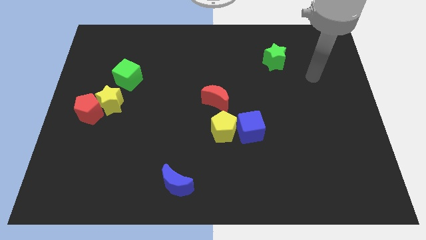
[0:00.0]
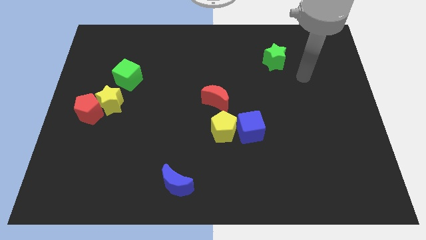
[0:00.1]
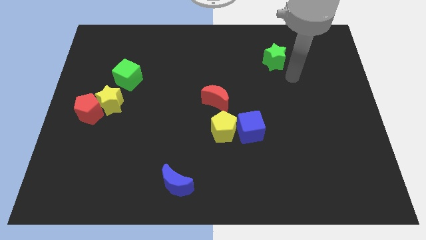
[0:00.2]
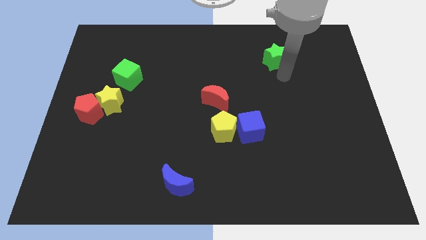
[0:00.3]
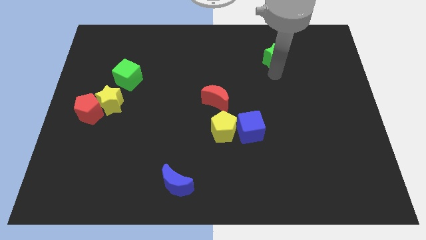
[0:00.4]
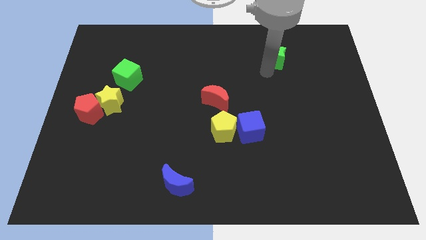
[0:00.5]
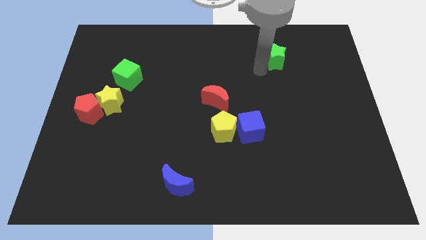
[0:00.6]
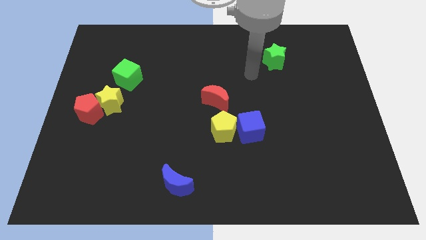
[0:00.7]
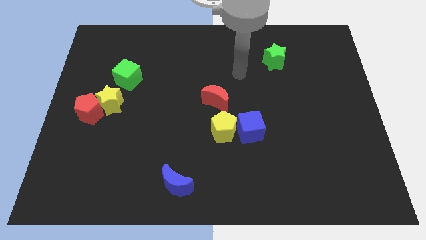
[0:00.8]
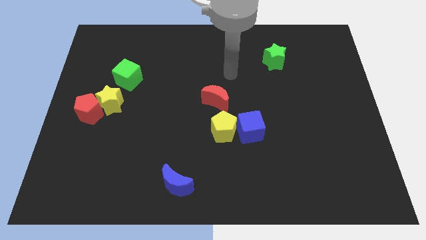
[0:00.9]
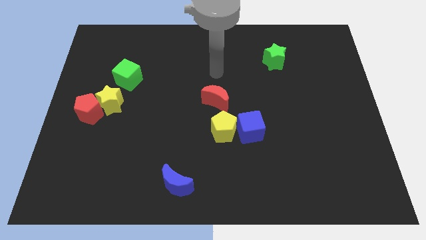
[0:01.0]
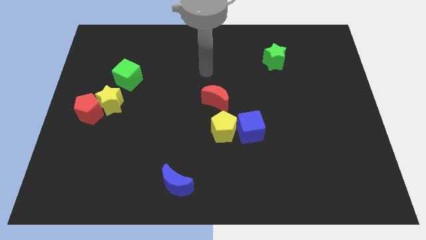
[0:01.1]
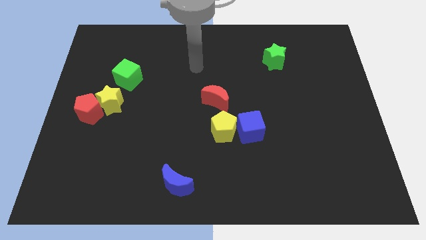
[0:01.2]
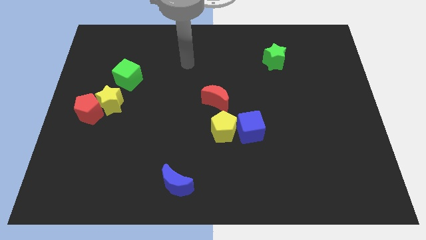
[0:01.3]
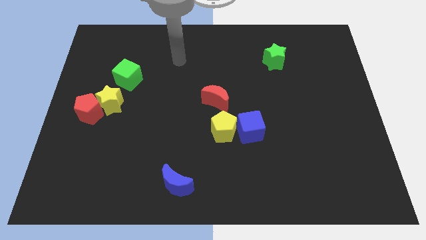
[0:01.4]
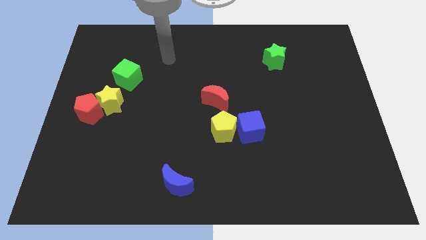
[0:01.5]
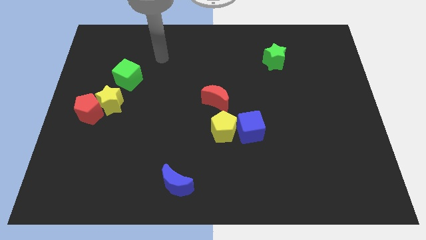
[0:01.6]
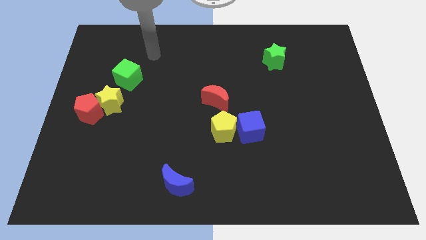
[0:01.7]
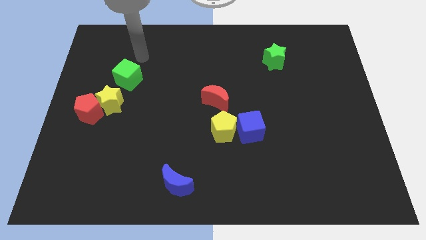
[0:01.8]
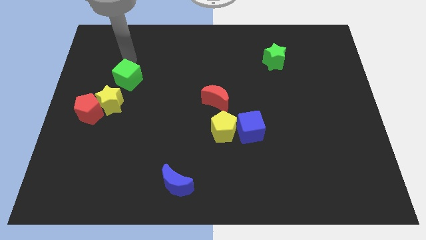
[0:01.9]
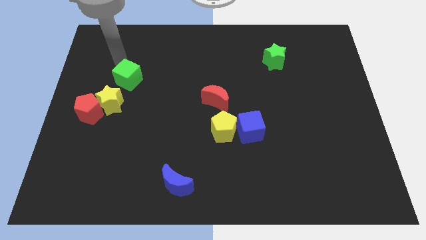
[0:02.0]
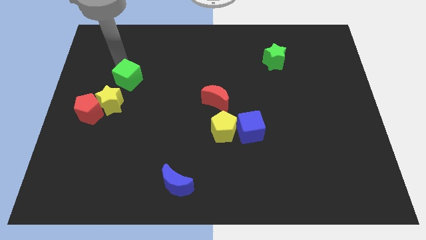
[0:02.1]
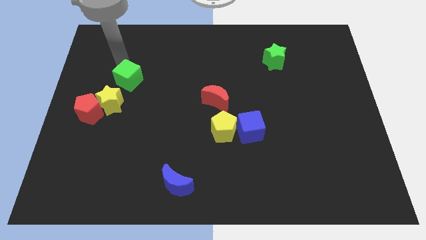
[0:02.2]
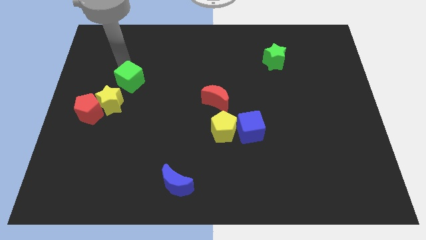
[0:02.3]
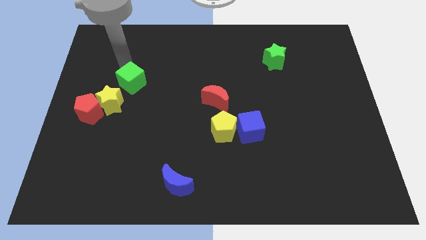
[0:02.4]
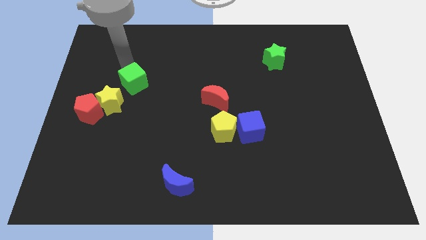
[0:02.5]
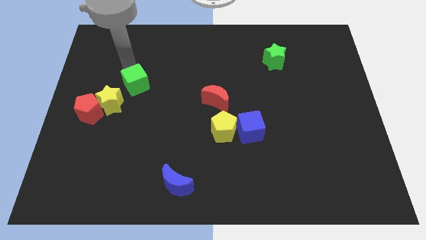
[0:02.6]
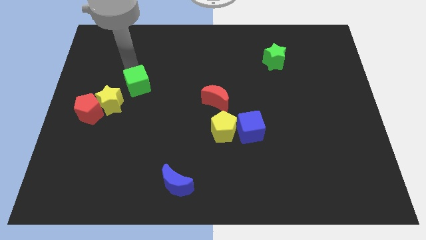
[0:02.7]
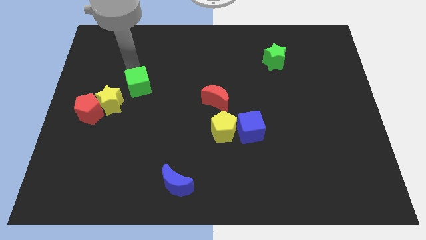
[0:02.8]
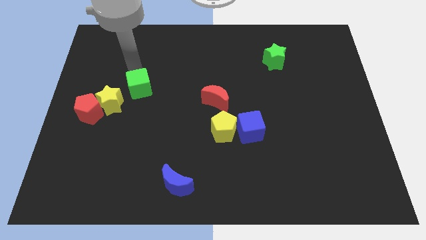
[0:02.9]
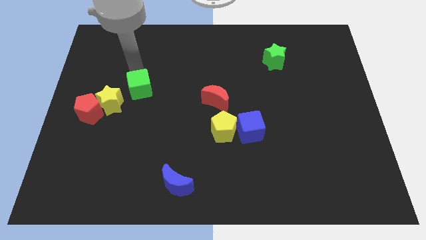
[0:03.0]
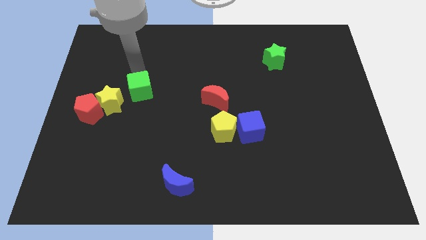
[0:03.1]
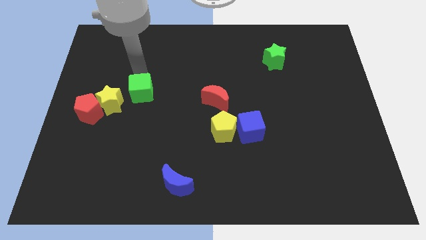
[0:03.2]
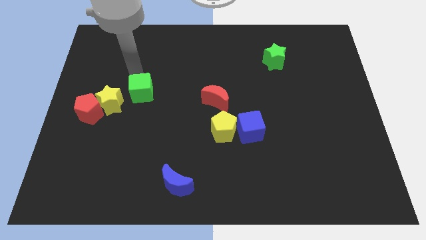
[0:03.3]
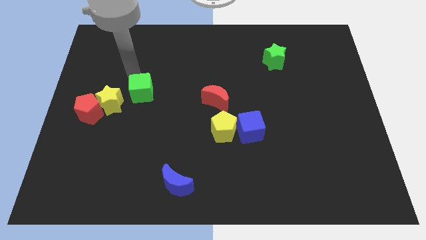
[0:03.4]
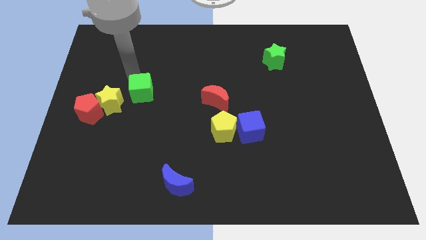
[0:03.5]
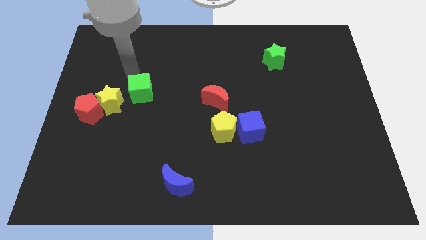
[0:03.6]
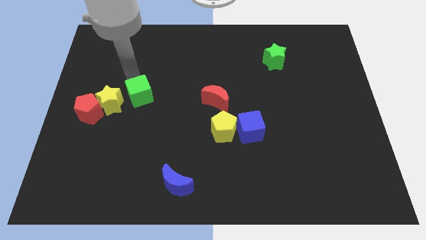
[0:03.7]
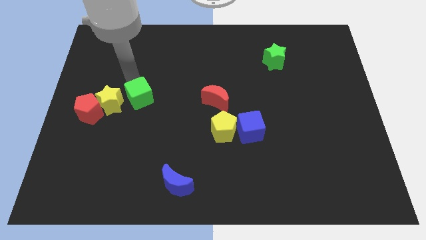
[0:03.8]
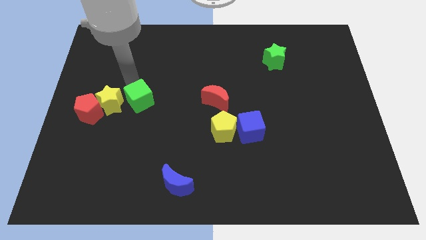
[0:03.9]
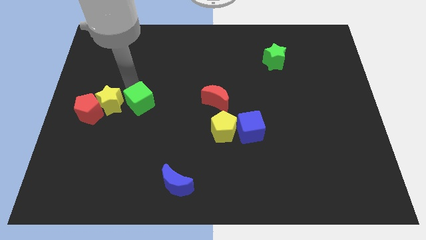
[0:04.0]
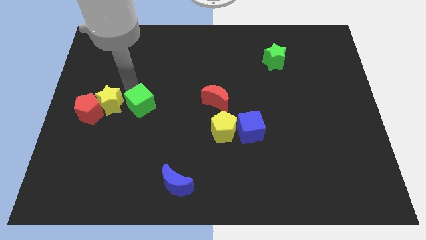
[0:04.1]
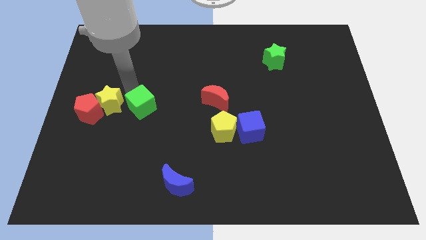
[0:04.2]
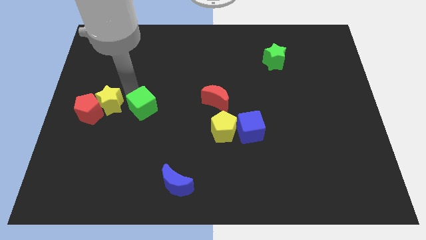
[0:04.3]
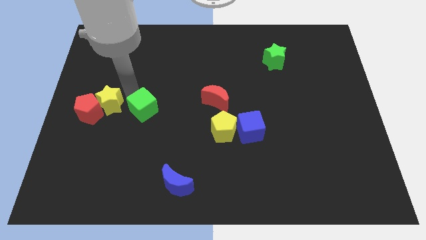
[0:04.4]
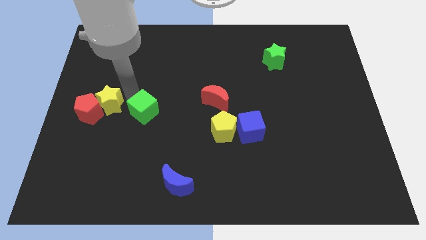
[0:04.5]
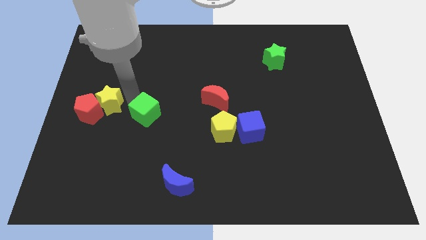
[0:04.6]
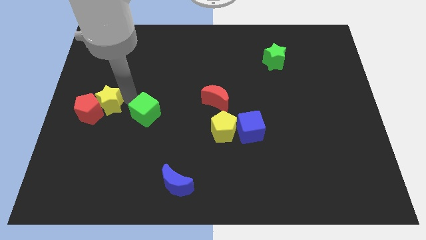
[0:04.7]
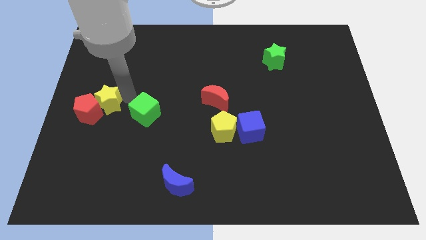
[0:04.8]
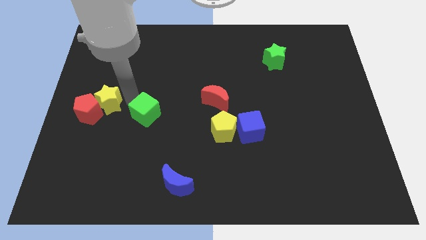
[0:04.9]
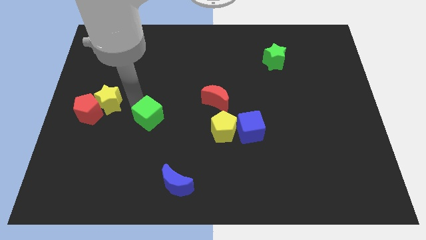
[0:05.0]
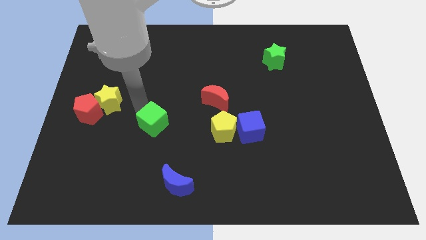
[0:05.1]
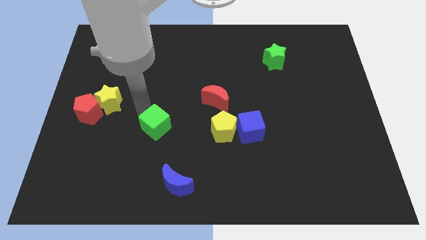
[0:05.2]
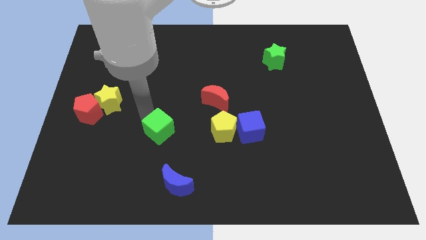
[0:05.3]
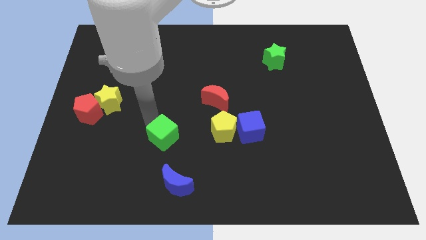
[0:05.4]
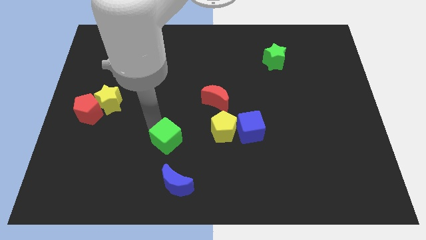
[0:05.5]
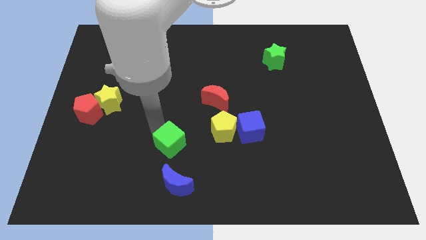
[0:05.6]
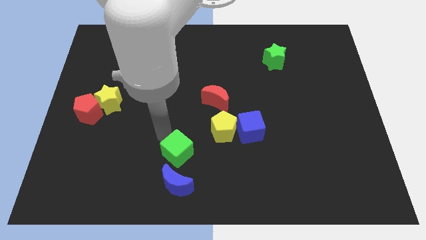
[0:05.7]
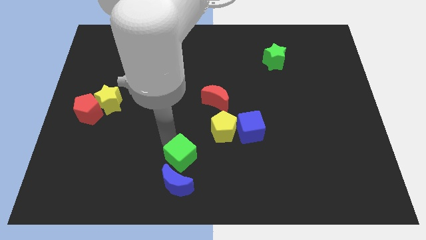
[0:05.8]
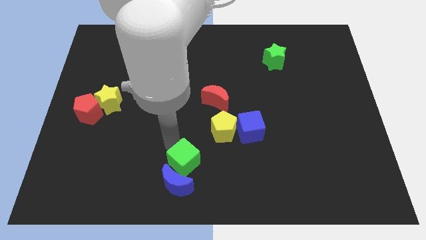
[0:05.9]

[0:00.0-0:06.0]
put the green cube to the bottom side

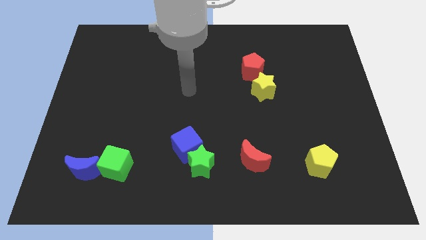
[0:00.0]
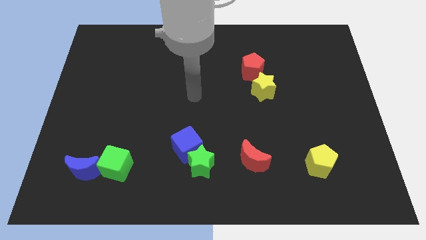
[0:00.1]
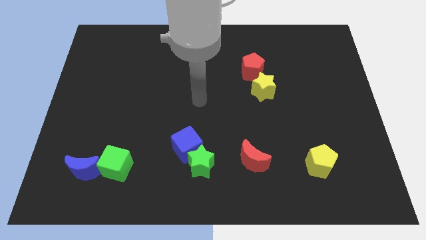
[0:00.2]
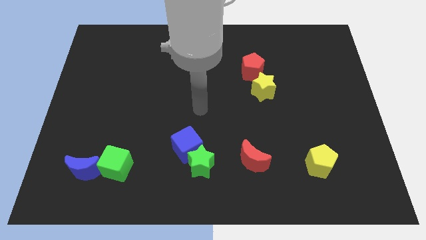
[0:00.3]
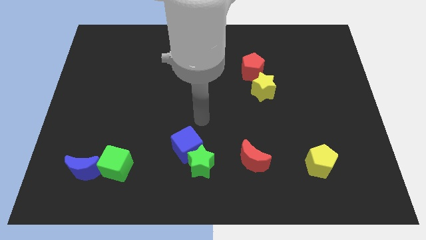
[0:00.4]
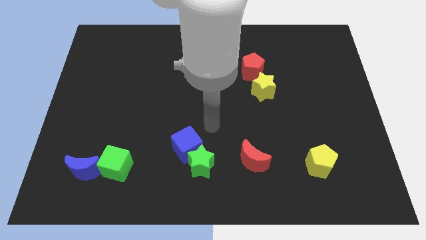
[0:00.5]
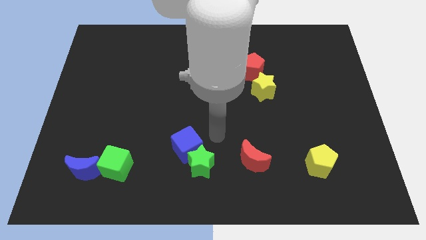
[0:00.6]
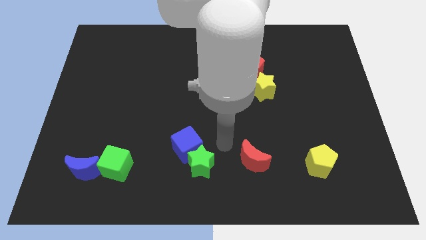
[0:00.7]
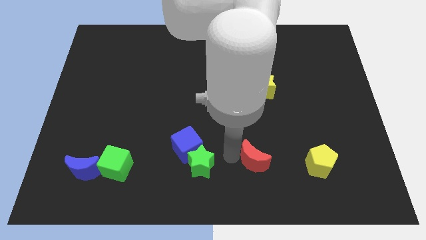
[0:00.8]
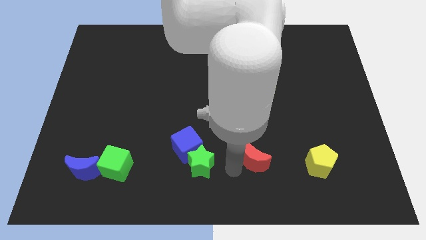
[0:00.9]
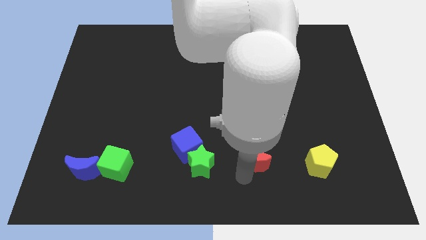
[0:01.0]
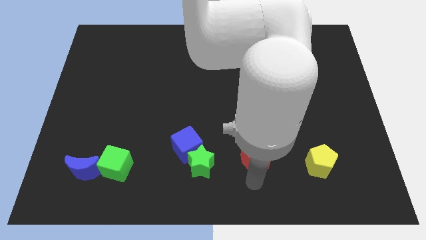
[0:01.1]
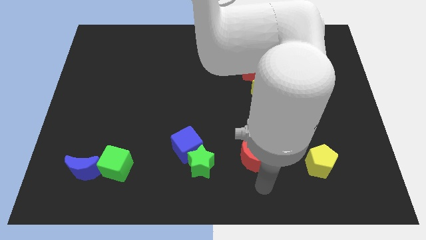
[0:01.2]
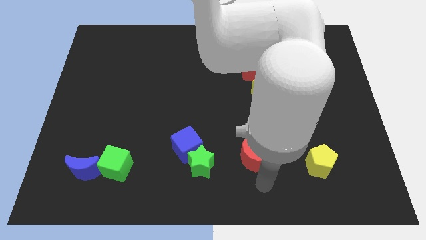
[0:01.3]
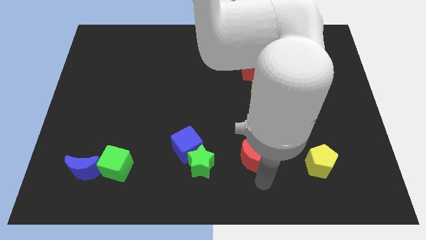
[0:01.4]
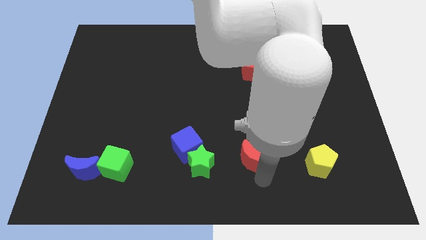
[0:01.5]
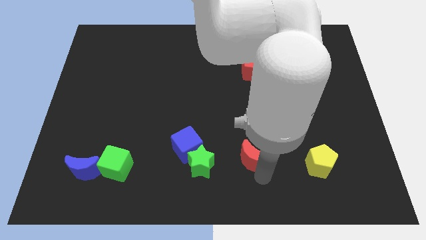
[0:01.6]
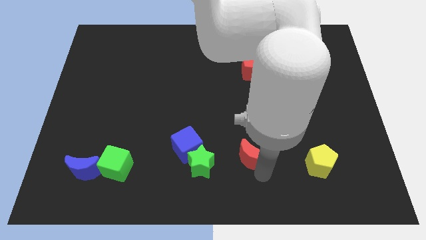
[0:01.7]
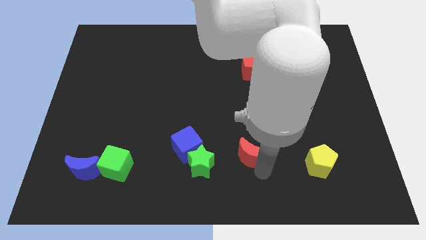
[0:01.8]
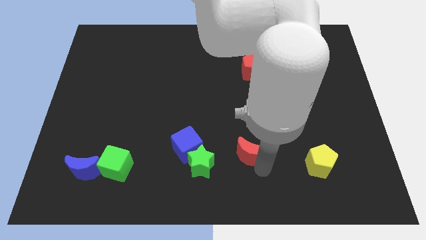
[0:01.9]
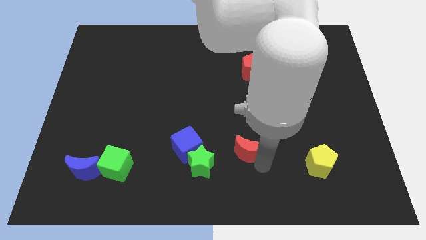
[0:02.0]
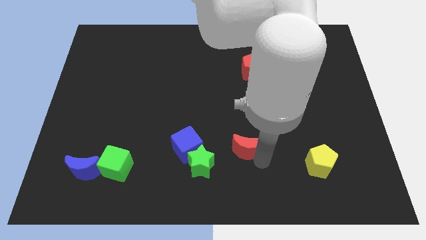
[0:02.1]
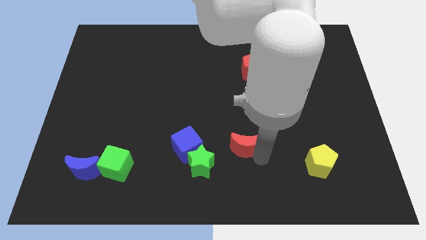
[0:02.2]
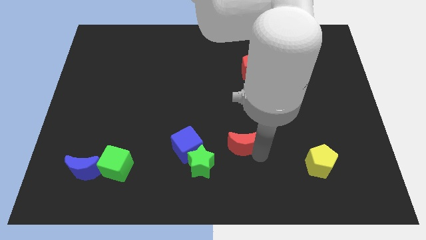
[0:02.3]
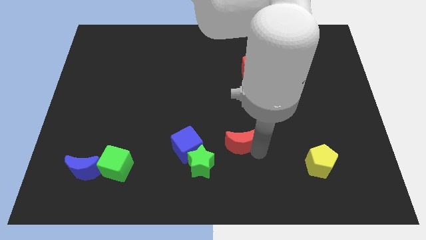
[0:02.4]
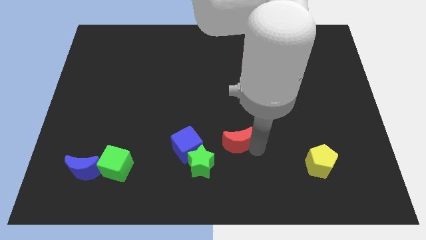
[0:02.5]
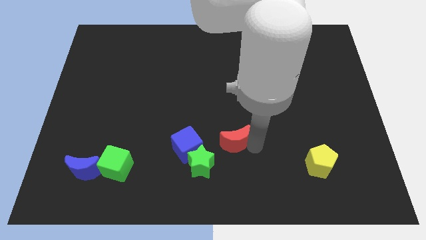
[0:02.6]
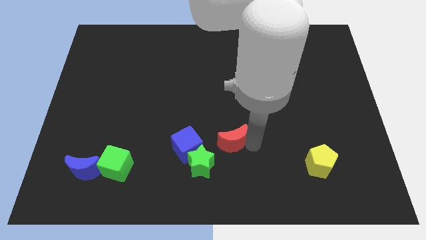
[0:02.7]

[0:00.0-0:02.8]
slide the red moon to the center of the board
